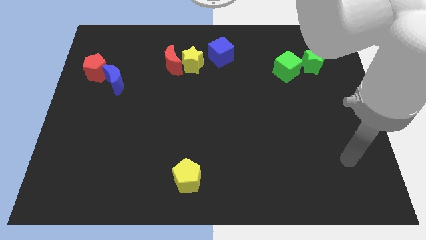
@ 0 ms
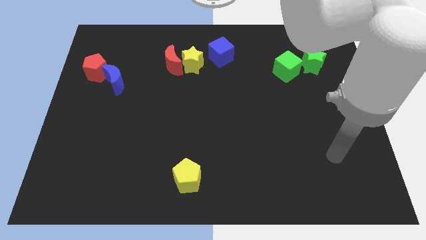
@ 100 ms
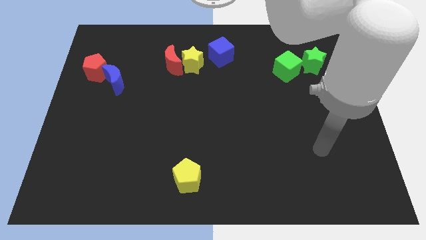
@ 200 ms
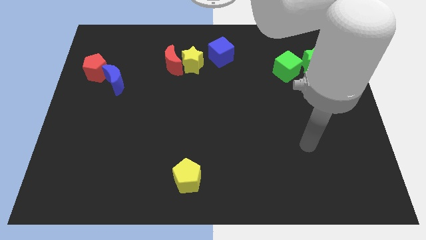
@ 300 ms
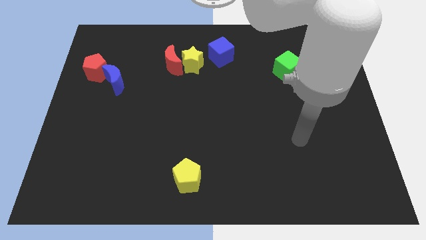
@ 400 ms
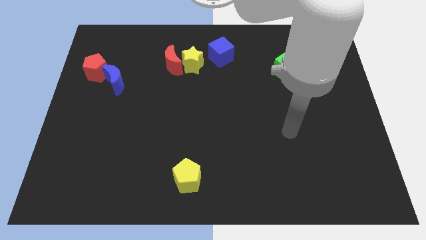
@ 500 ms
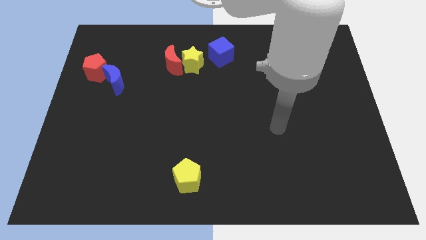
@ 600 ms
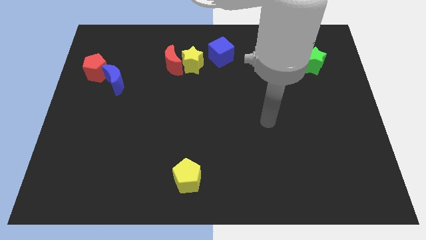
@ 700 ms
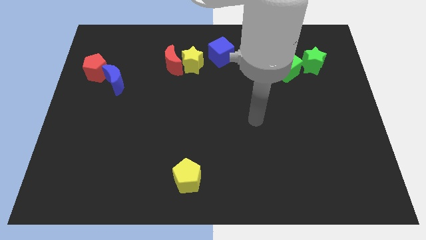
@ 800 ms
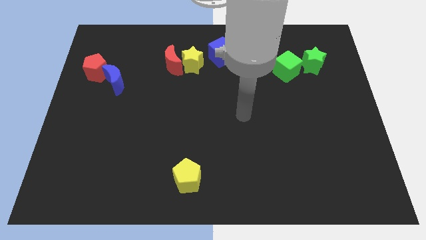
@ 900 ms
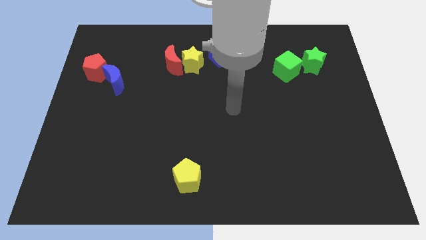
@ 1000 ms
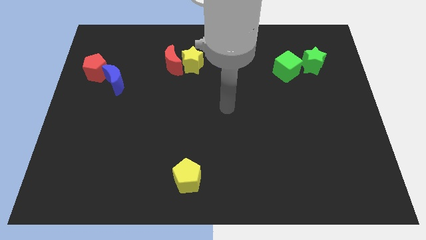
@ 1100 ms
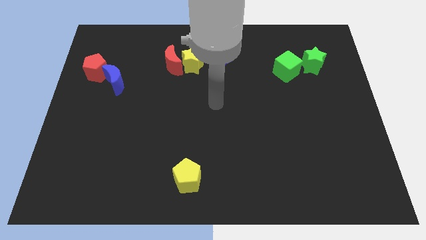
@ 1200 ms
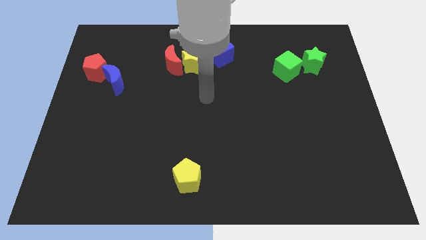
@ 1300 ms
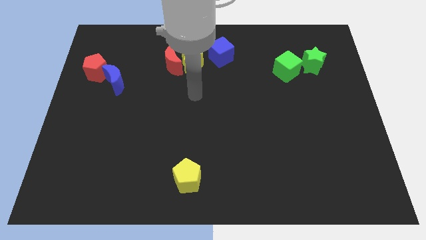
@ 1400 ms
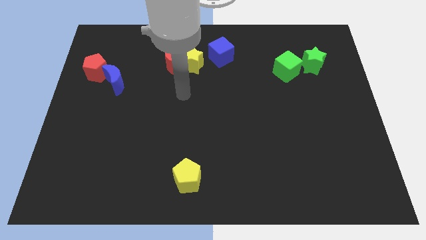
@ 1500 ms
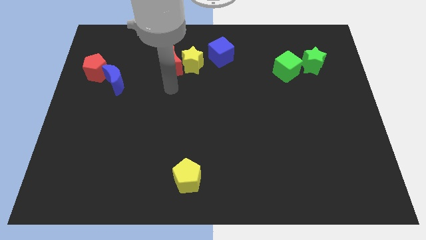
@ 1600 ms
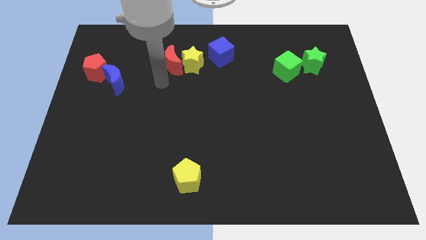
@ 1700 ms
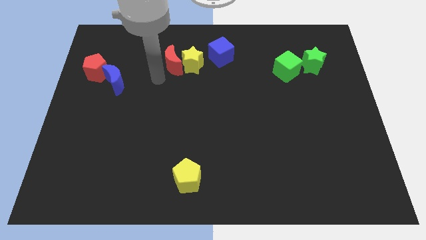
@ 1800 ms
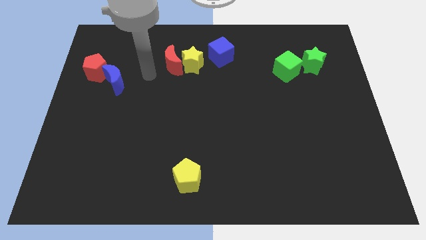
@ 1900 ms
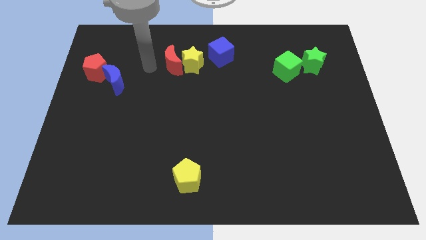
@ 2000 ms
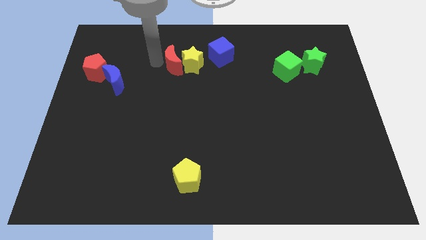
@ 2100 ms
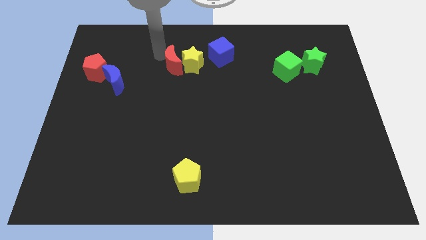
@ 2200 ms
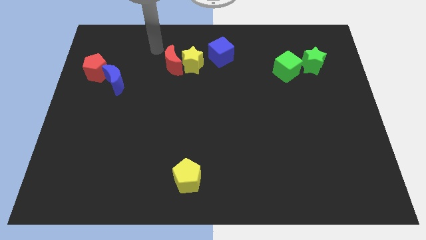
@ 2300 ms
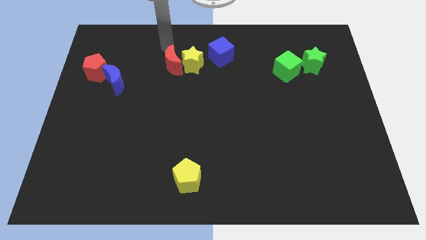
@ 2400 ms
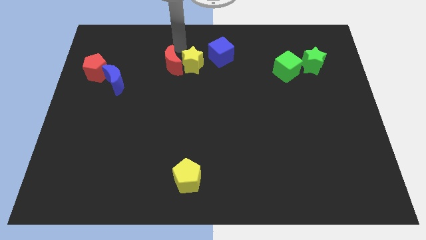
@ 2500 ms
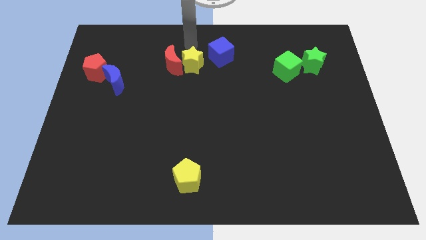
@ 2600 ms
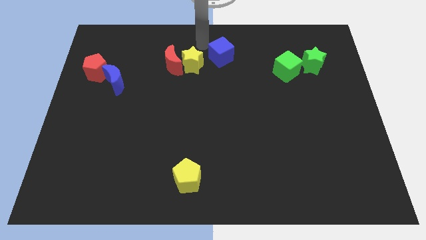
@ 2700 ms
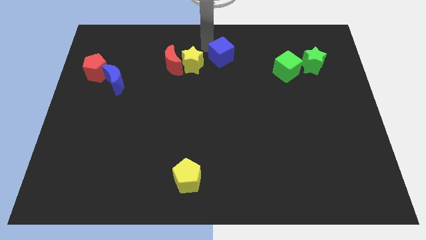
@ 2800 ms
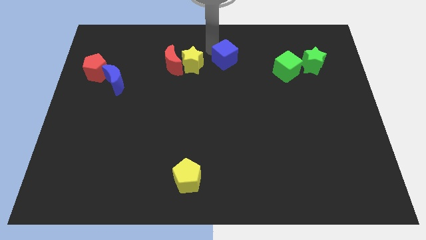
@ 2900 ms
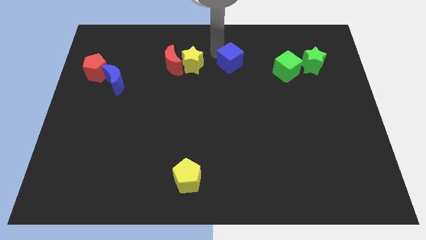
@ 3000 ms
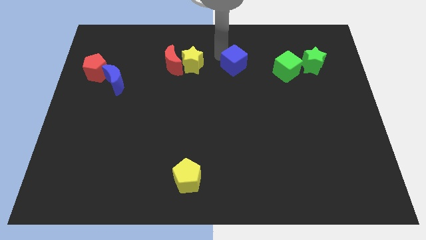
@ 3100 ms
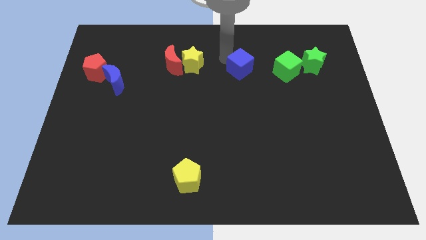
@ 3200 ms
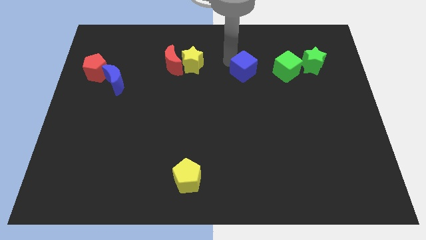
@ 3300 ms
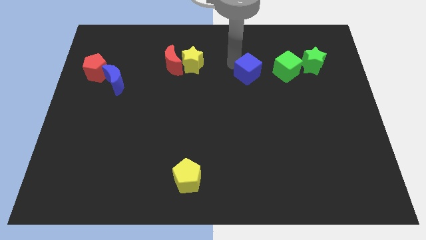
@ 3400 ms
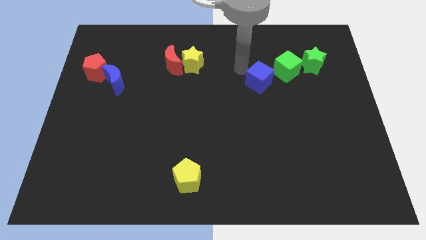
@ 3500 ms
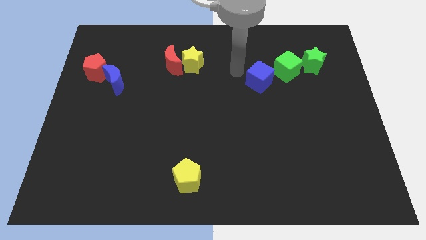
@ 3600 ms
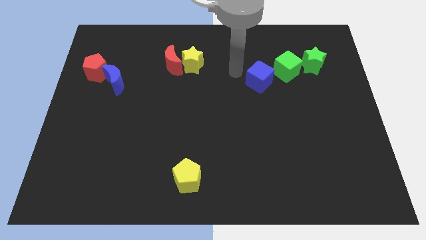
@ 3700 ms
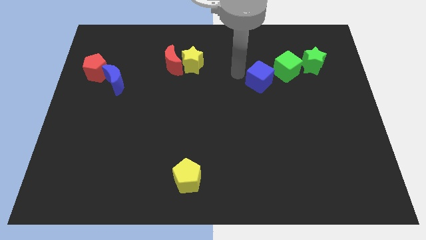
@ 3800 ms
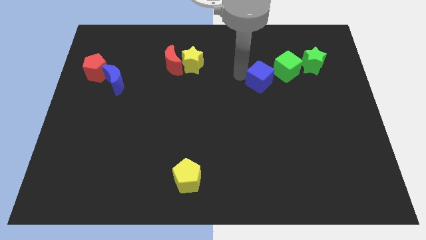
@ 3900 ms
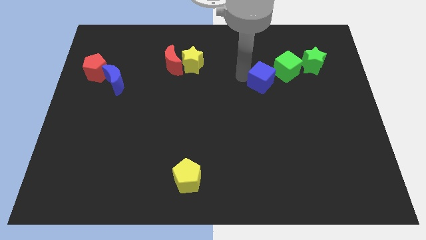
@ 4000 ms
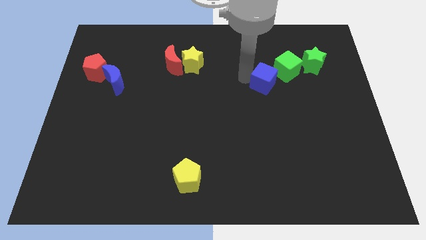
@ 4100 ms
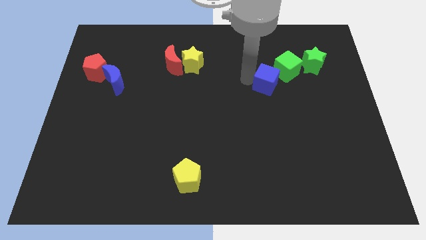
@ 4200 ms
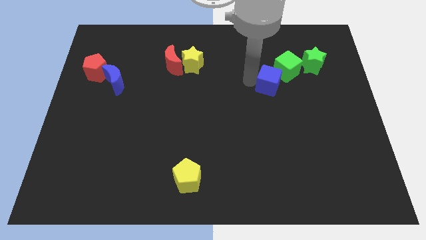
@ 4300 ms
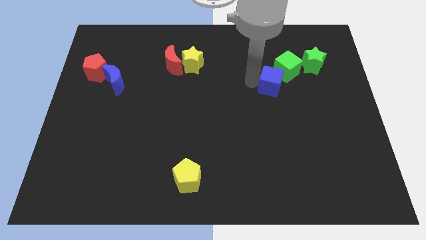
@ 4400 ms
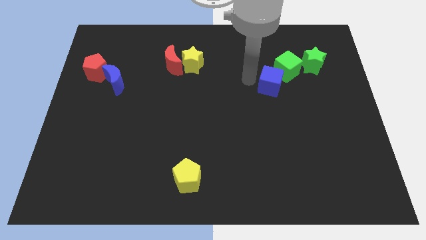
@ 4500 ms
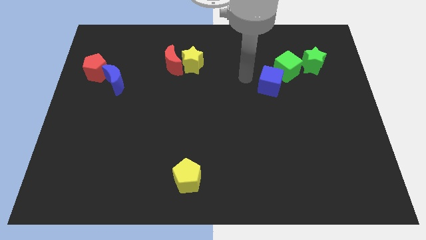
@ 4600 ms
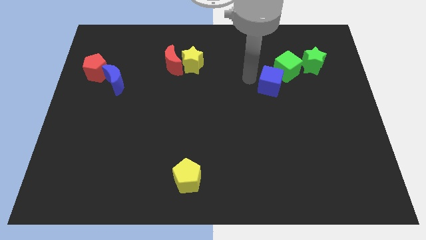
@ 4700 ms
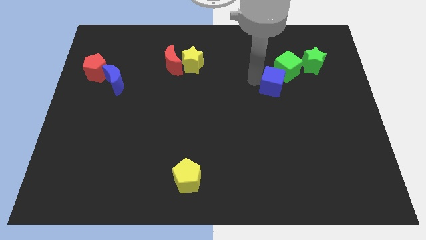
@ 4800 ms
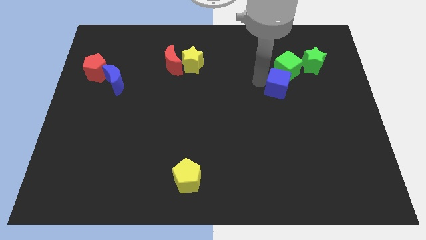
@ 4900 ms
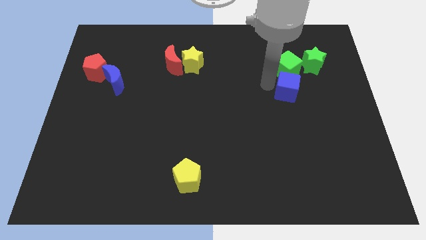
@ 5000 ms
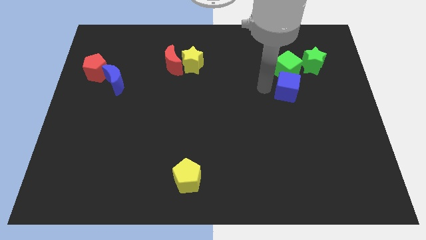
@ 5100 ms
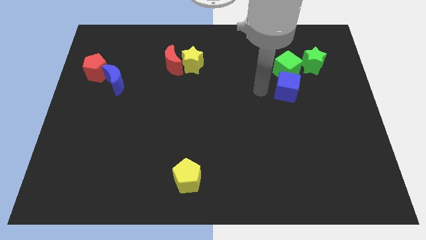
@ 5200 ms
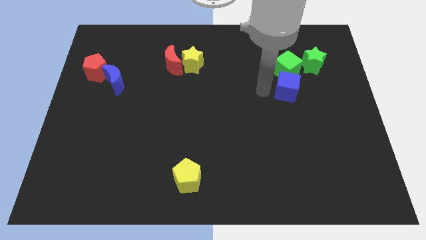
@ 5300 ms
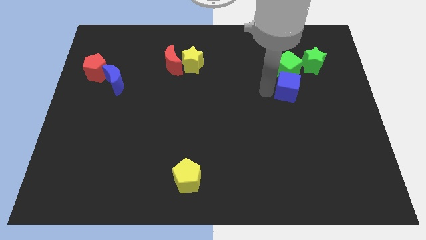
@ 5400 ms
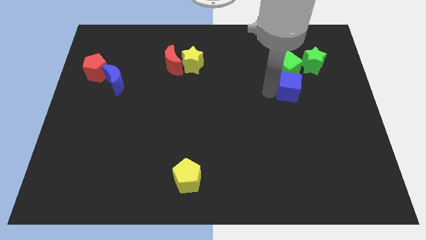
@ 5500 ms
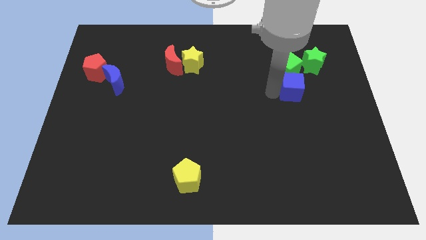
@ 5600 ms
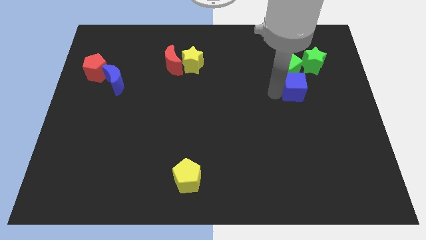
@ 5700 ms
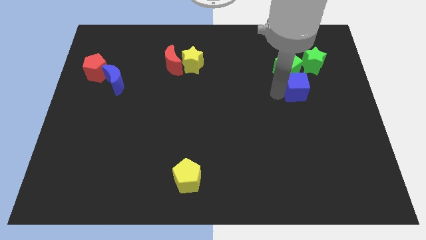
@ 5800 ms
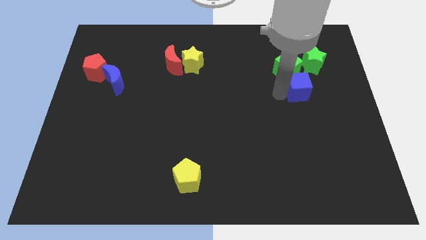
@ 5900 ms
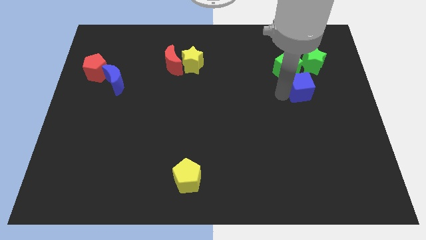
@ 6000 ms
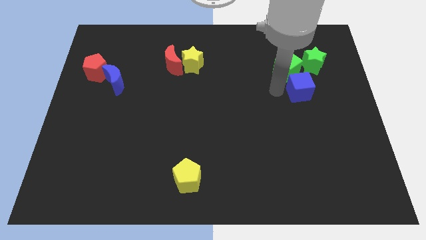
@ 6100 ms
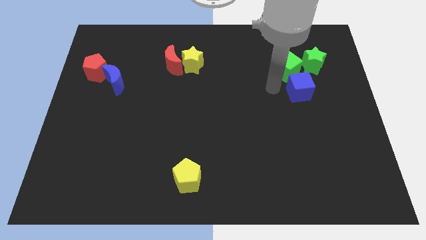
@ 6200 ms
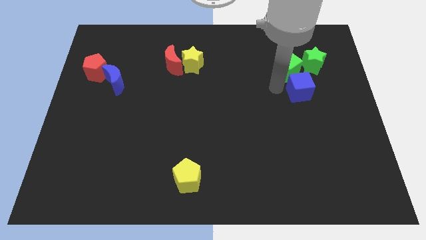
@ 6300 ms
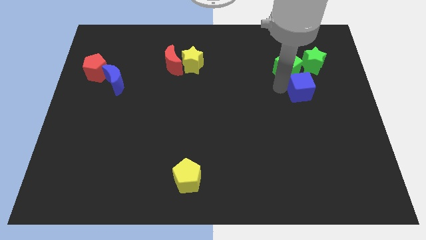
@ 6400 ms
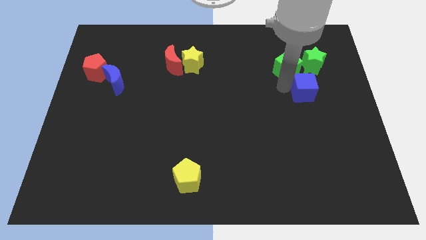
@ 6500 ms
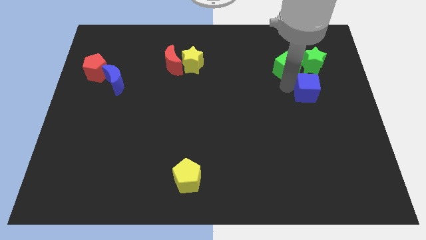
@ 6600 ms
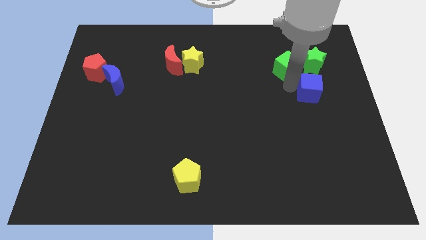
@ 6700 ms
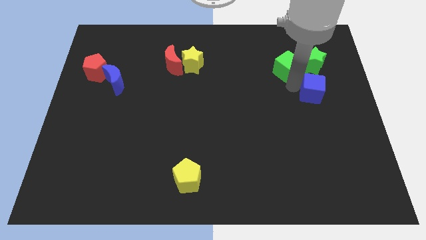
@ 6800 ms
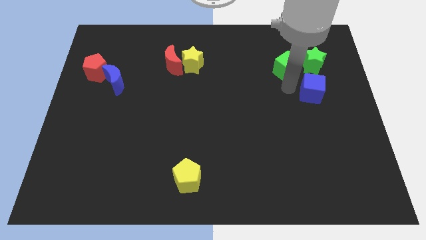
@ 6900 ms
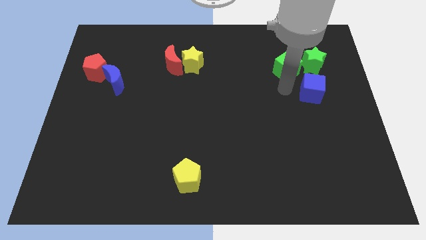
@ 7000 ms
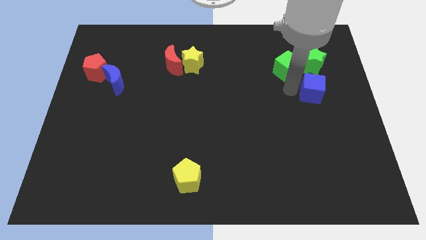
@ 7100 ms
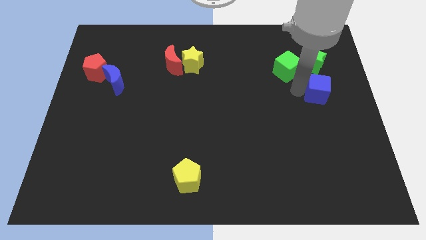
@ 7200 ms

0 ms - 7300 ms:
push the blue cube to the center right
